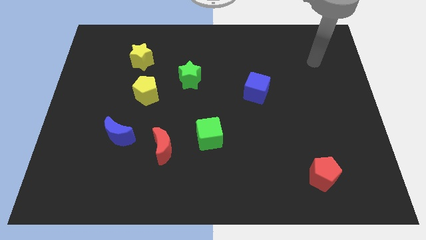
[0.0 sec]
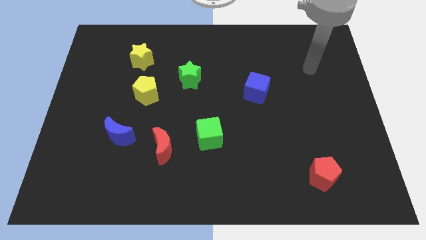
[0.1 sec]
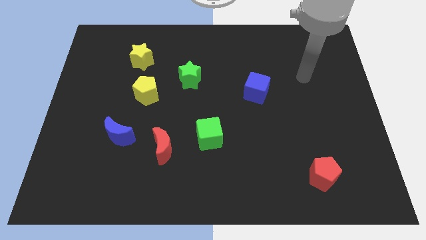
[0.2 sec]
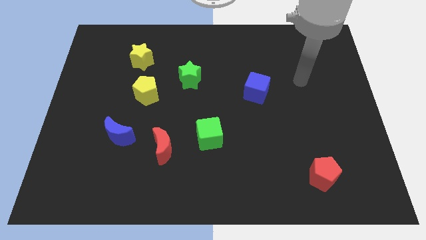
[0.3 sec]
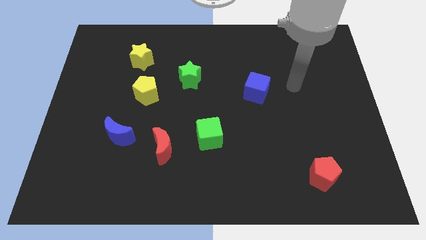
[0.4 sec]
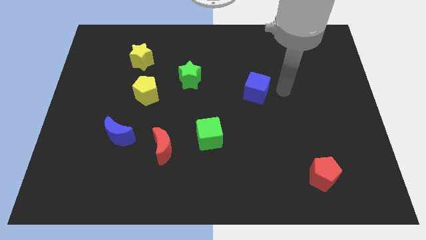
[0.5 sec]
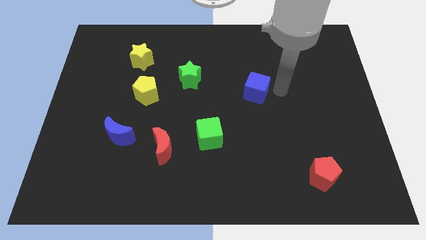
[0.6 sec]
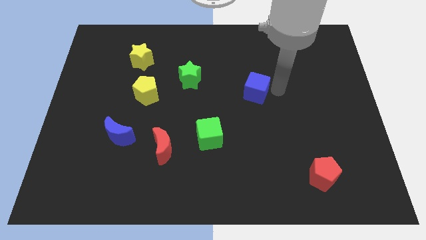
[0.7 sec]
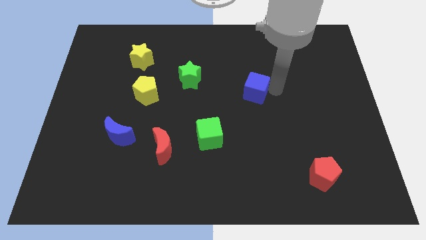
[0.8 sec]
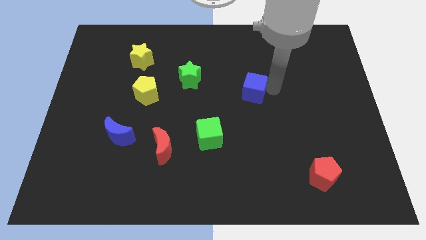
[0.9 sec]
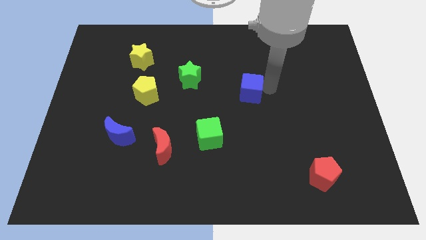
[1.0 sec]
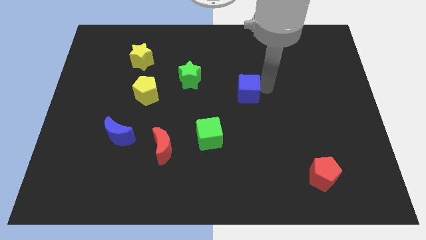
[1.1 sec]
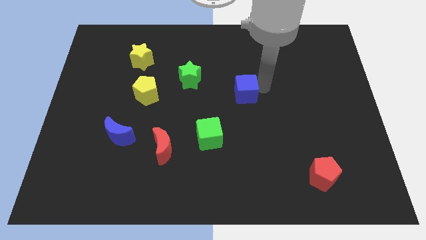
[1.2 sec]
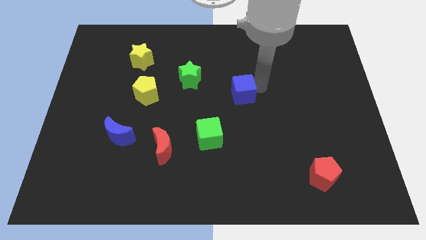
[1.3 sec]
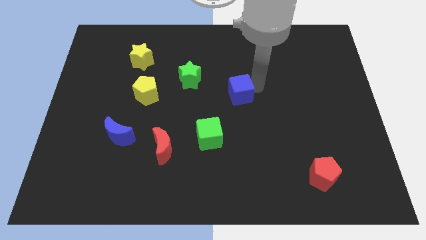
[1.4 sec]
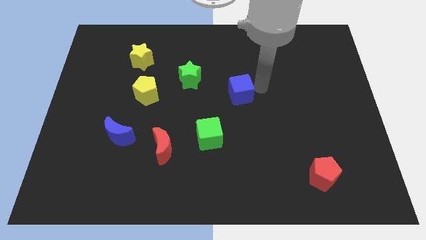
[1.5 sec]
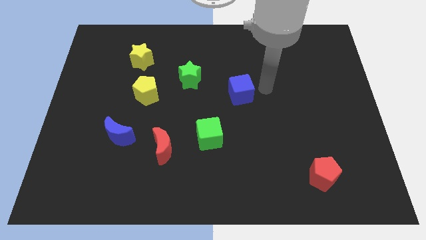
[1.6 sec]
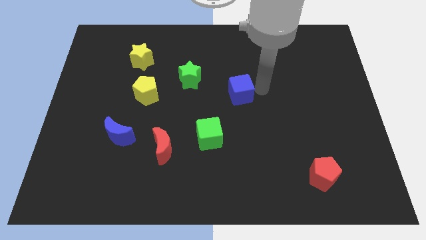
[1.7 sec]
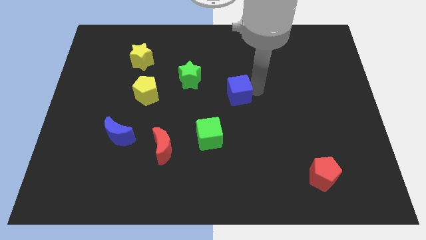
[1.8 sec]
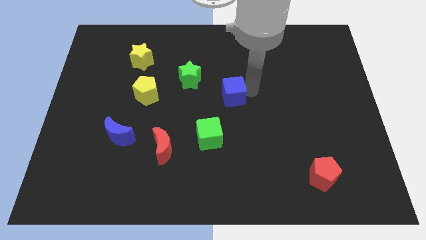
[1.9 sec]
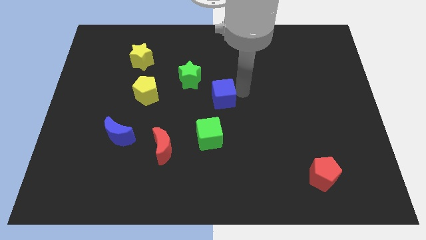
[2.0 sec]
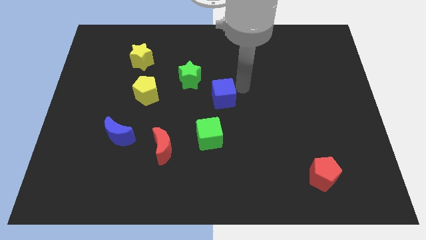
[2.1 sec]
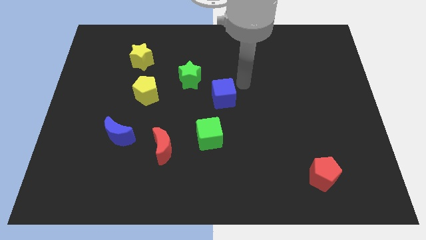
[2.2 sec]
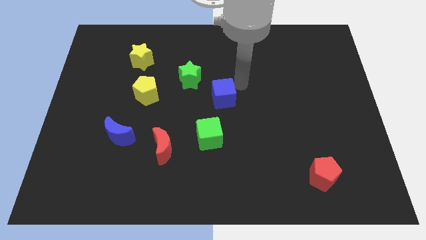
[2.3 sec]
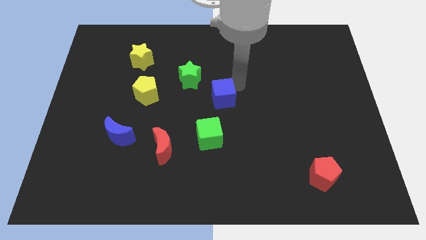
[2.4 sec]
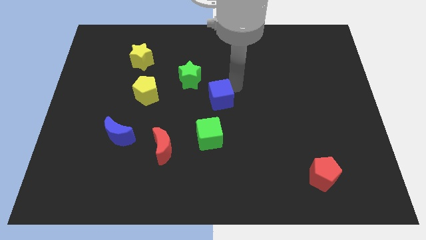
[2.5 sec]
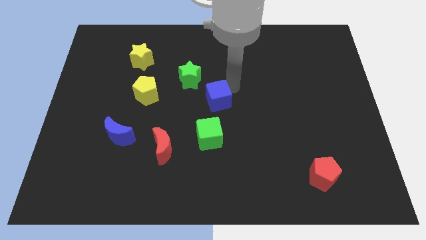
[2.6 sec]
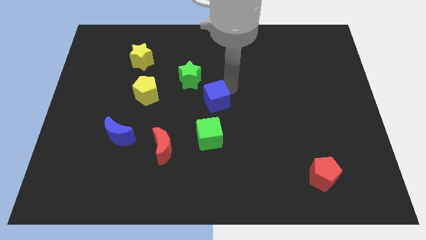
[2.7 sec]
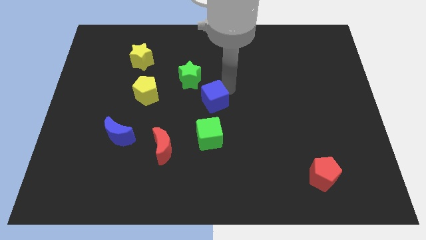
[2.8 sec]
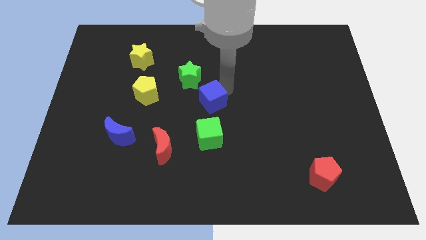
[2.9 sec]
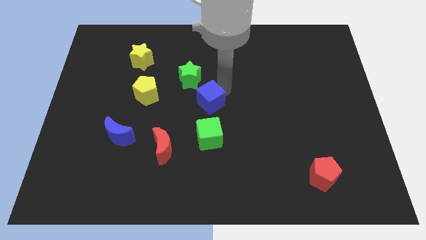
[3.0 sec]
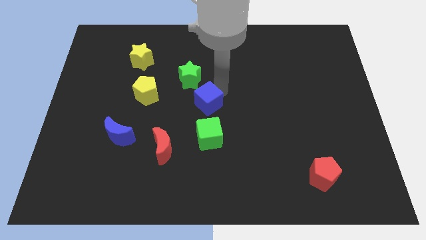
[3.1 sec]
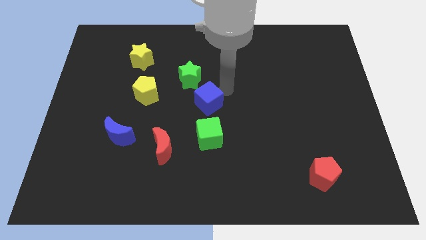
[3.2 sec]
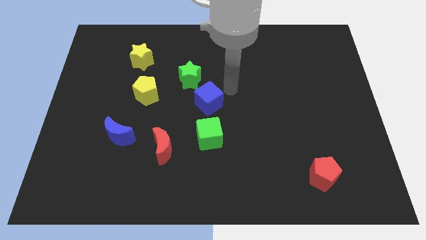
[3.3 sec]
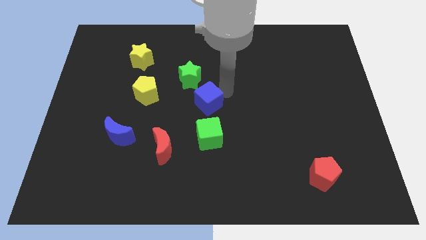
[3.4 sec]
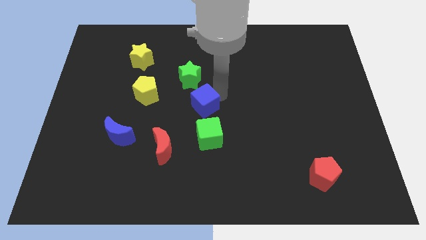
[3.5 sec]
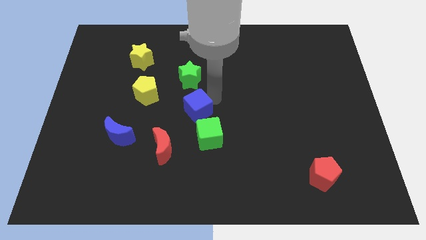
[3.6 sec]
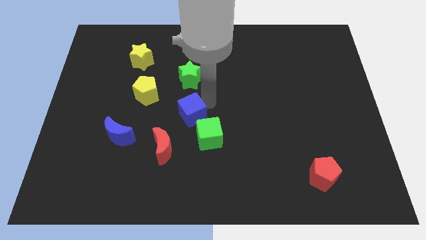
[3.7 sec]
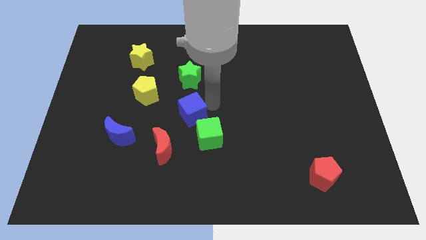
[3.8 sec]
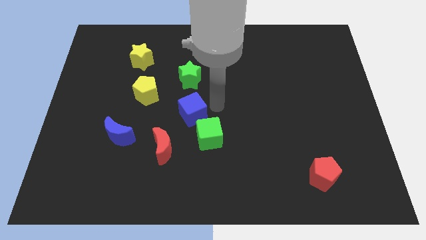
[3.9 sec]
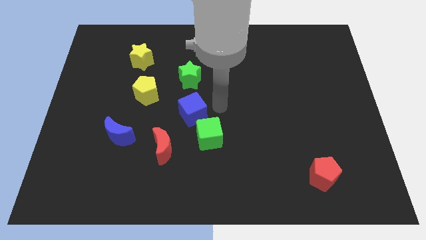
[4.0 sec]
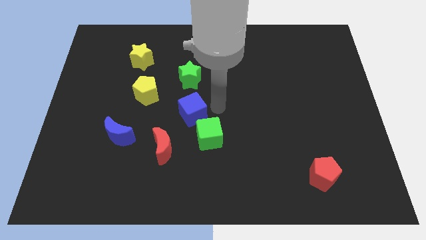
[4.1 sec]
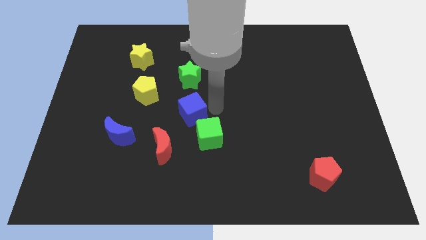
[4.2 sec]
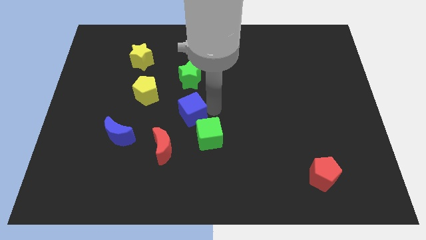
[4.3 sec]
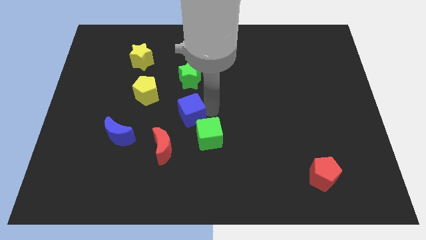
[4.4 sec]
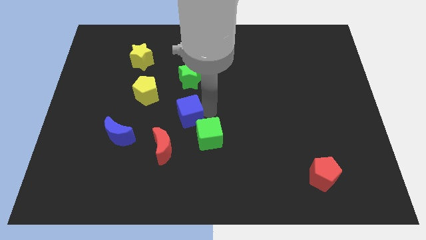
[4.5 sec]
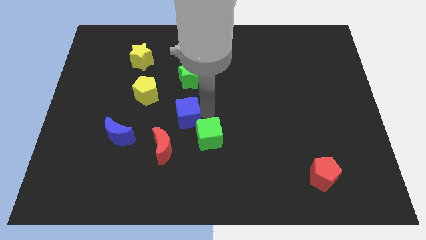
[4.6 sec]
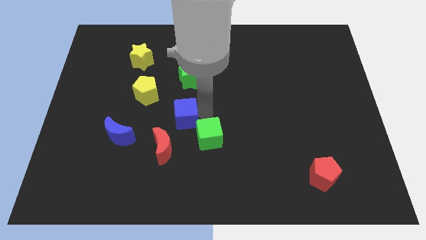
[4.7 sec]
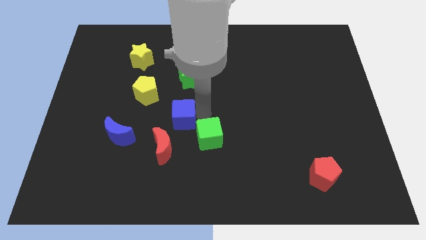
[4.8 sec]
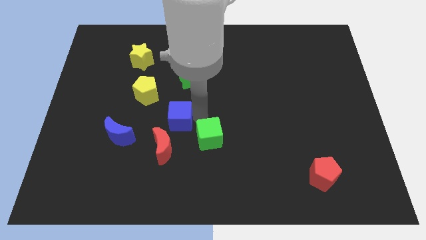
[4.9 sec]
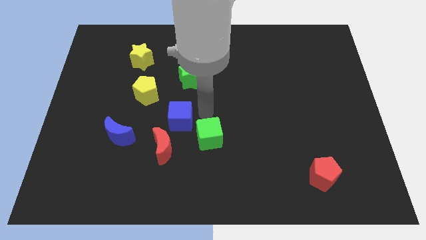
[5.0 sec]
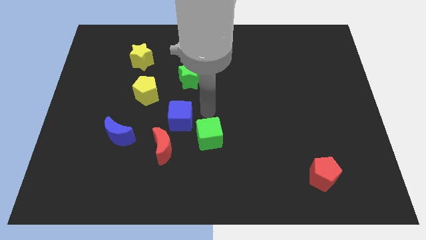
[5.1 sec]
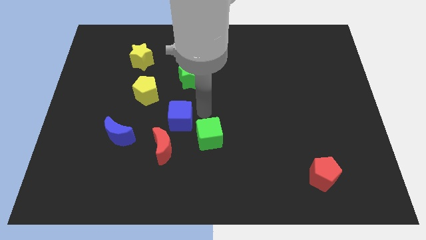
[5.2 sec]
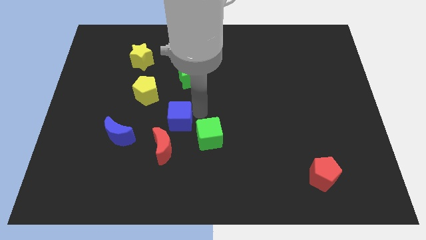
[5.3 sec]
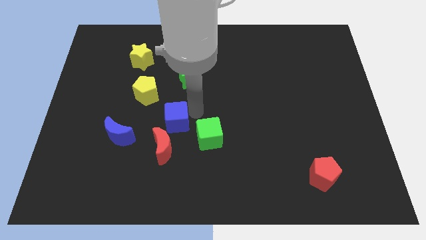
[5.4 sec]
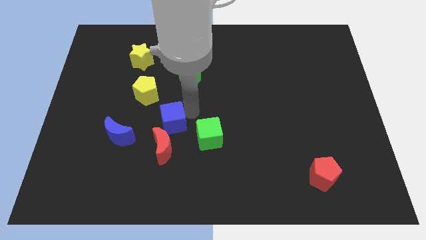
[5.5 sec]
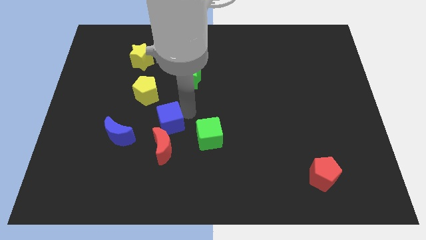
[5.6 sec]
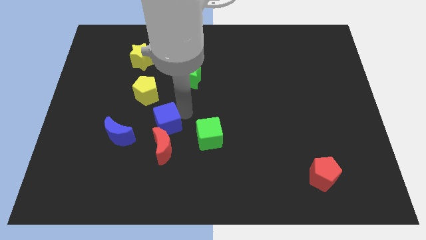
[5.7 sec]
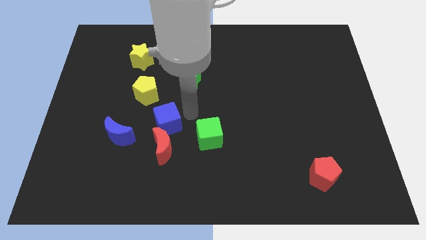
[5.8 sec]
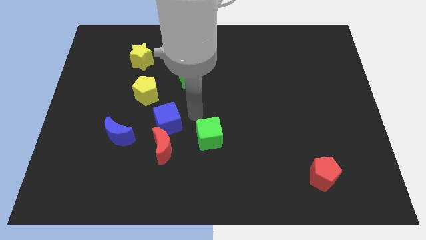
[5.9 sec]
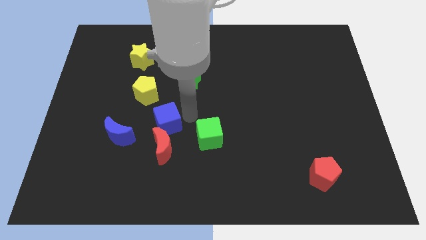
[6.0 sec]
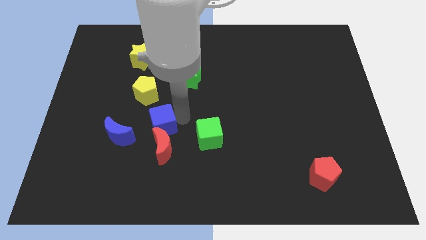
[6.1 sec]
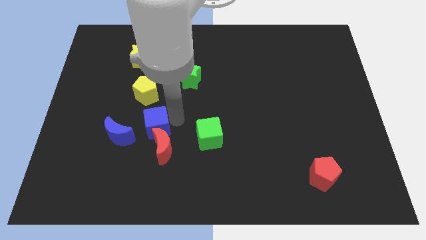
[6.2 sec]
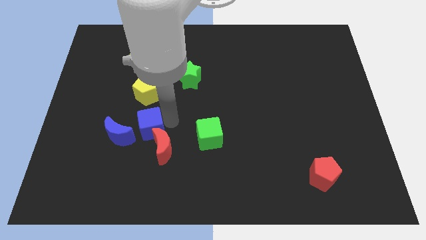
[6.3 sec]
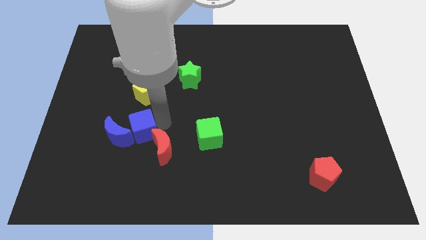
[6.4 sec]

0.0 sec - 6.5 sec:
slide the blue cube close to the blue moon
